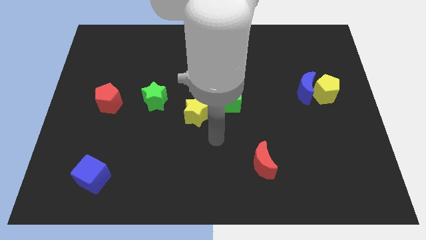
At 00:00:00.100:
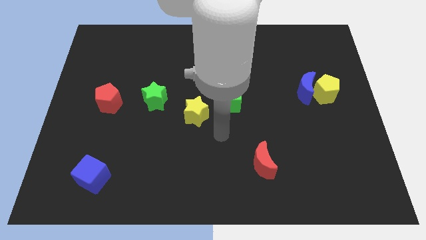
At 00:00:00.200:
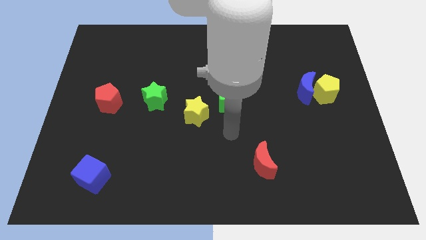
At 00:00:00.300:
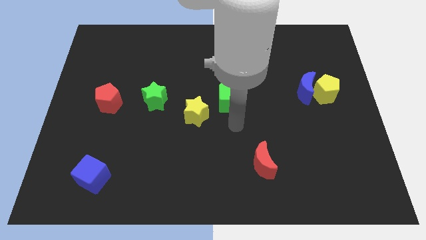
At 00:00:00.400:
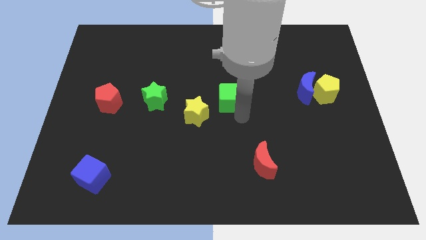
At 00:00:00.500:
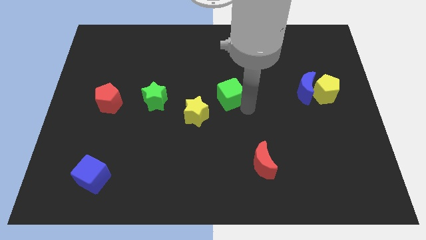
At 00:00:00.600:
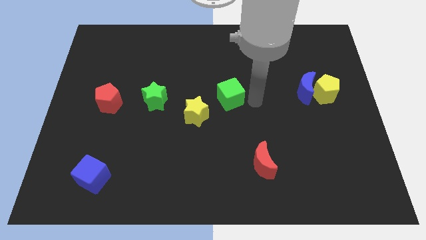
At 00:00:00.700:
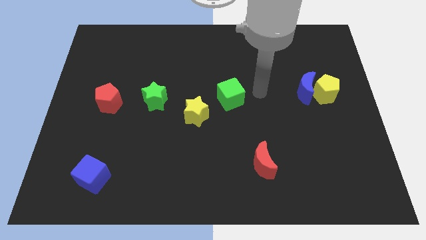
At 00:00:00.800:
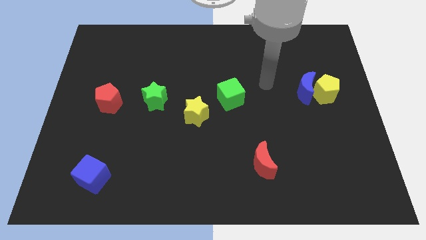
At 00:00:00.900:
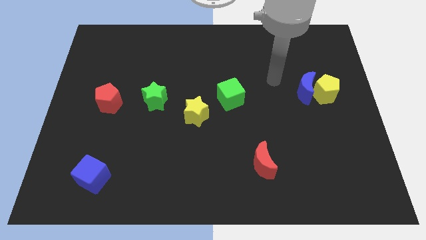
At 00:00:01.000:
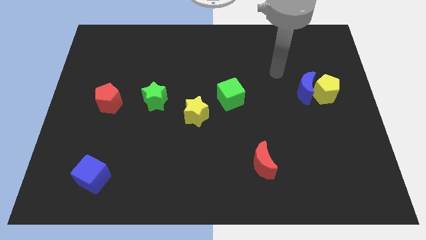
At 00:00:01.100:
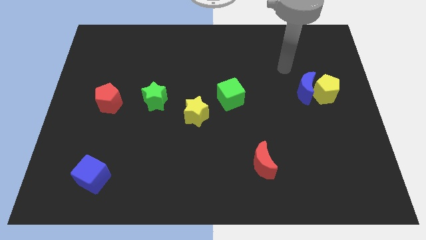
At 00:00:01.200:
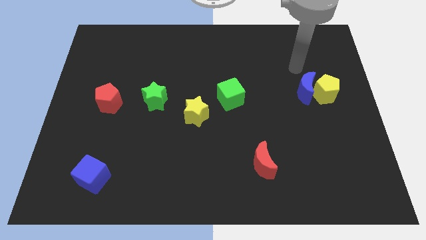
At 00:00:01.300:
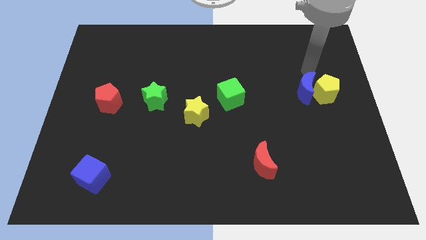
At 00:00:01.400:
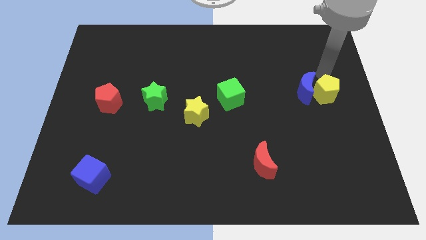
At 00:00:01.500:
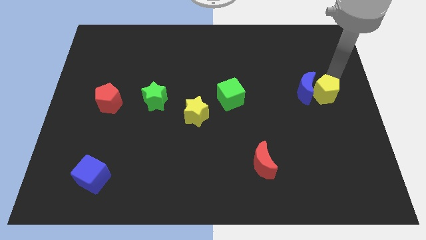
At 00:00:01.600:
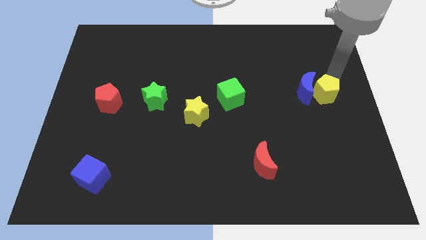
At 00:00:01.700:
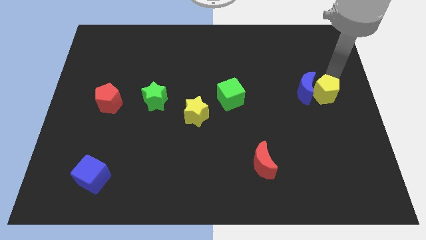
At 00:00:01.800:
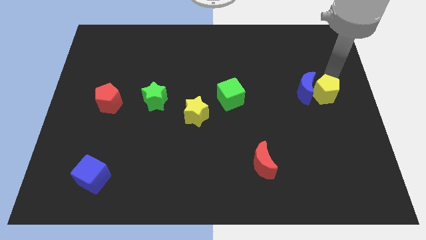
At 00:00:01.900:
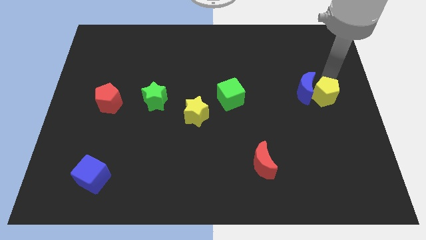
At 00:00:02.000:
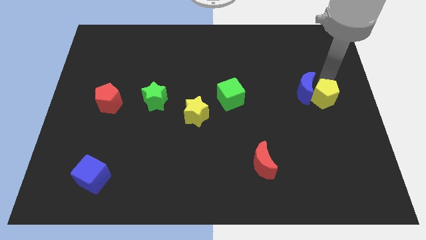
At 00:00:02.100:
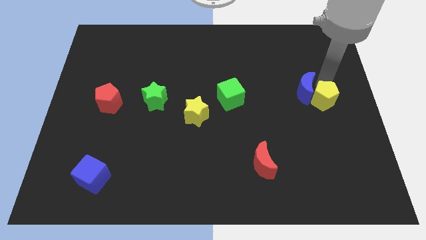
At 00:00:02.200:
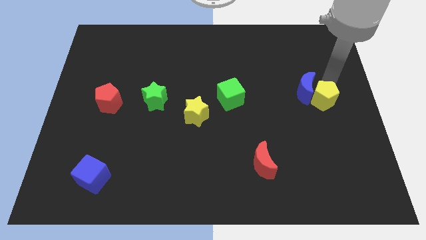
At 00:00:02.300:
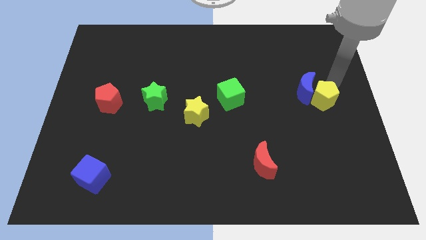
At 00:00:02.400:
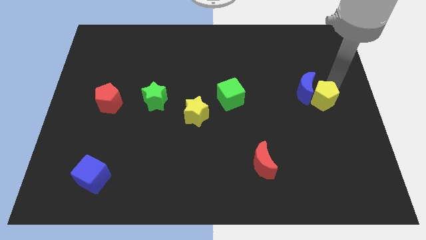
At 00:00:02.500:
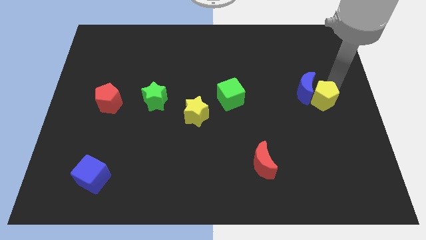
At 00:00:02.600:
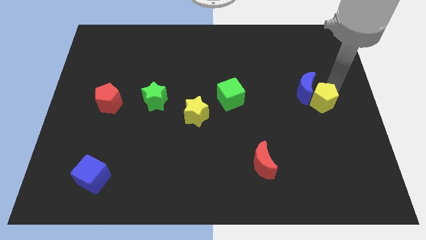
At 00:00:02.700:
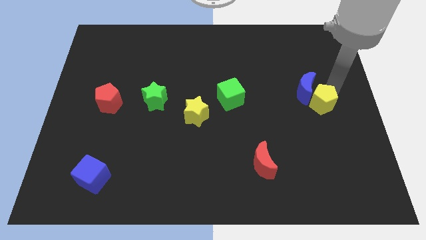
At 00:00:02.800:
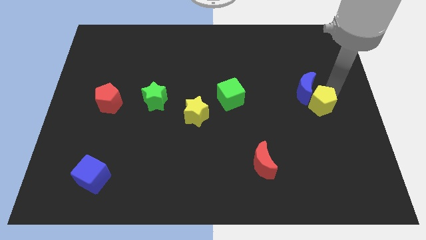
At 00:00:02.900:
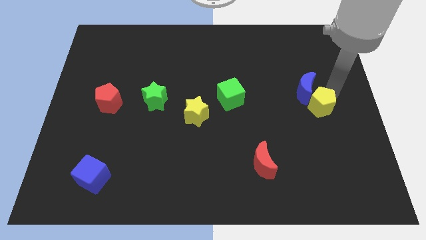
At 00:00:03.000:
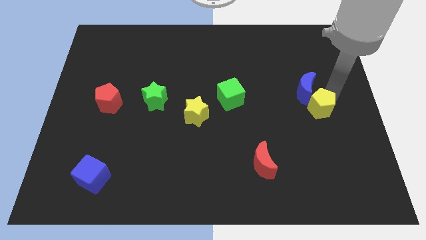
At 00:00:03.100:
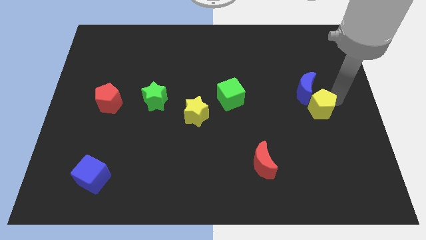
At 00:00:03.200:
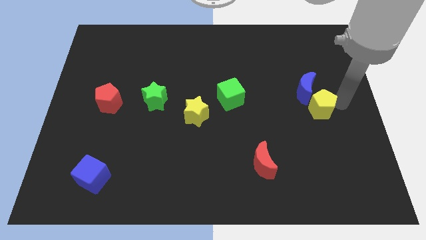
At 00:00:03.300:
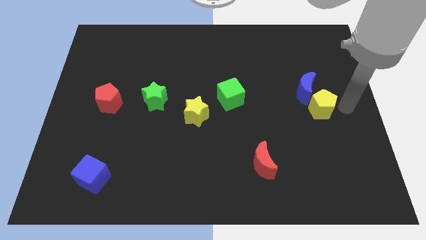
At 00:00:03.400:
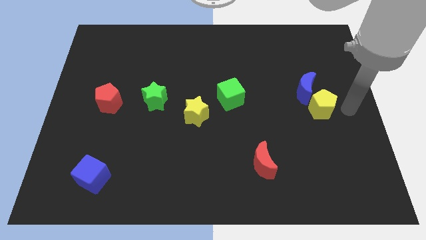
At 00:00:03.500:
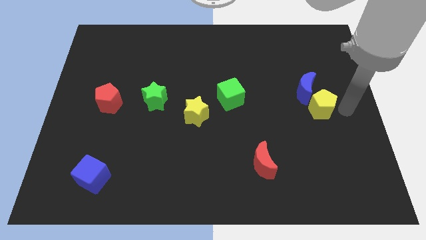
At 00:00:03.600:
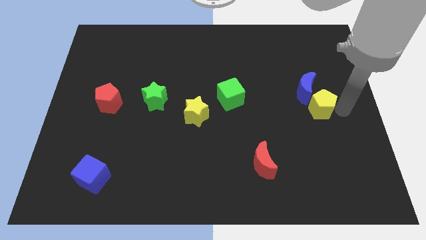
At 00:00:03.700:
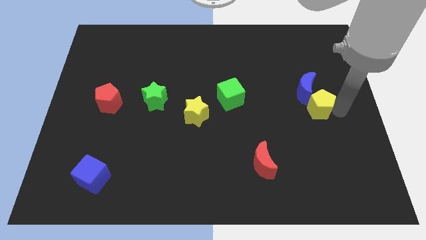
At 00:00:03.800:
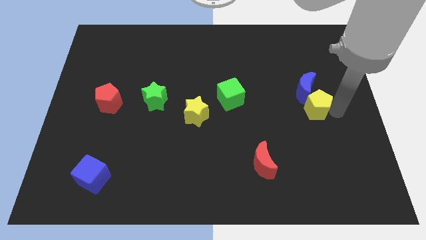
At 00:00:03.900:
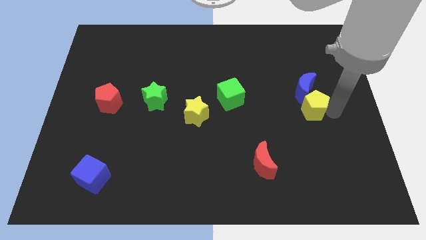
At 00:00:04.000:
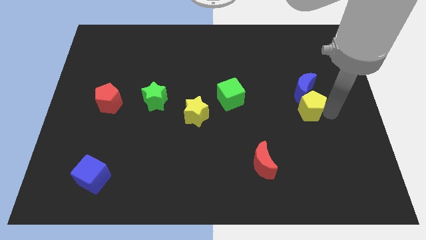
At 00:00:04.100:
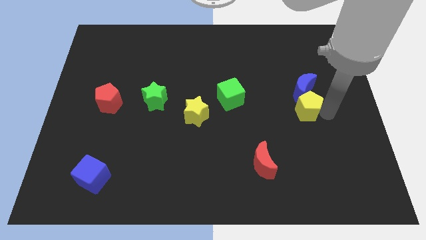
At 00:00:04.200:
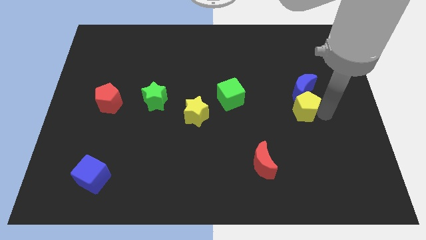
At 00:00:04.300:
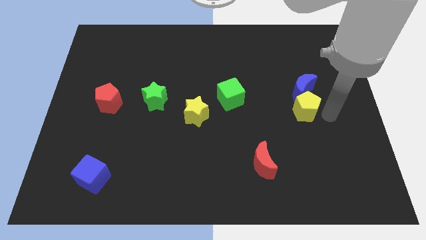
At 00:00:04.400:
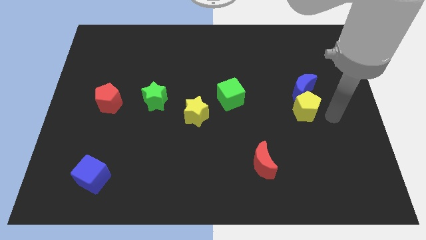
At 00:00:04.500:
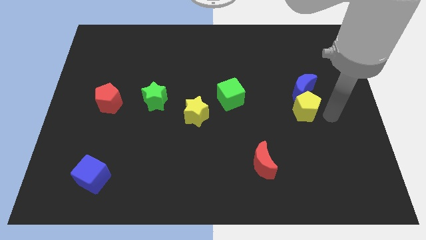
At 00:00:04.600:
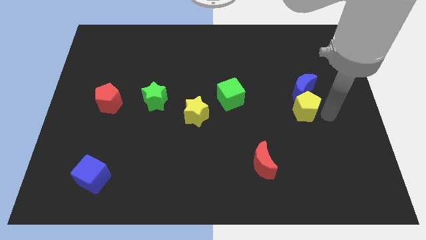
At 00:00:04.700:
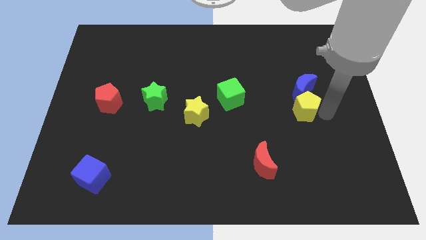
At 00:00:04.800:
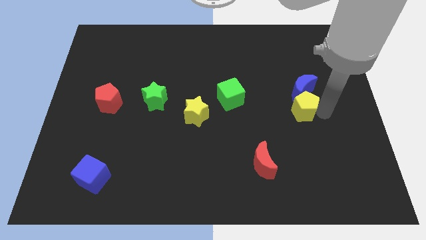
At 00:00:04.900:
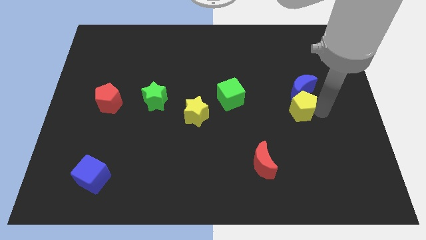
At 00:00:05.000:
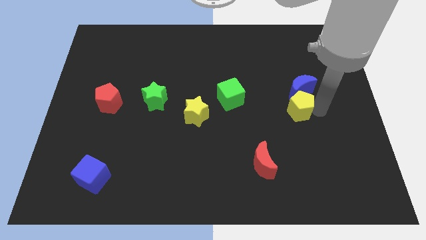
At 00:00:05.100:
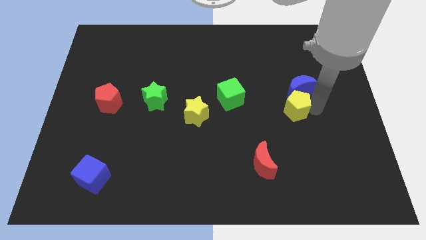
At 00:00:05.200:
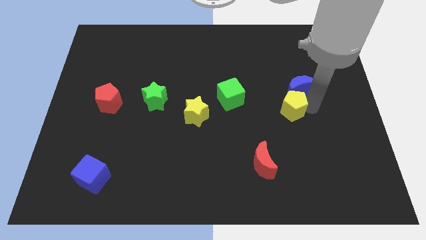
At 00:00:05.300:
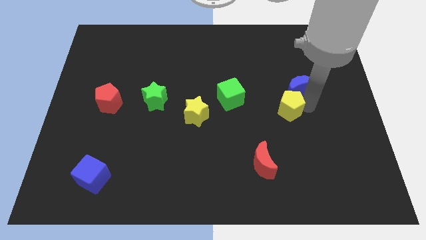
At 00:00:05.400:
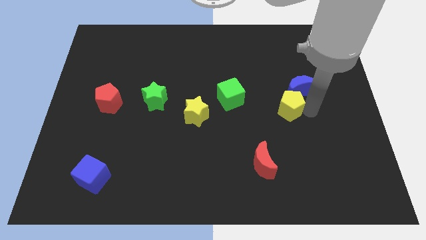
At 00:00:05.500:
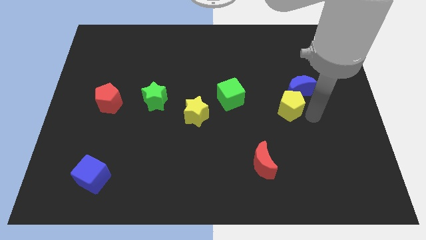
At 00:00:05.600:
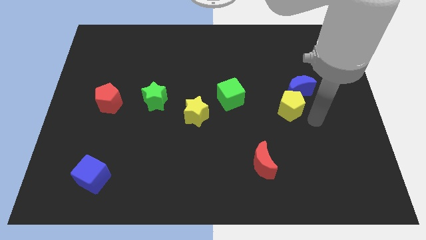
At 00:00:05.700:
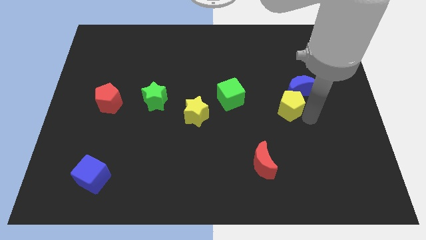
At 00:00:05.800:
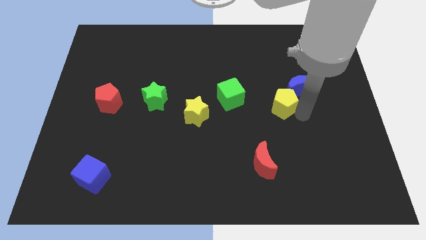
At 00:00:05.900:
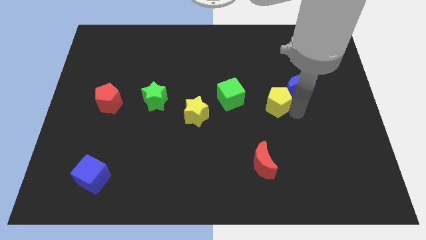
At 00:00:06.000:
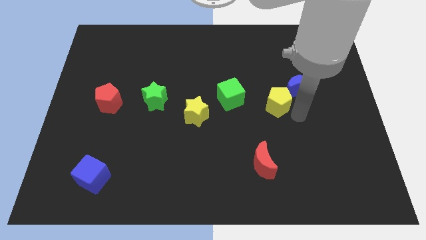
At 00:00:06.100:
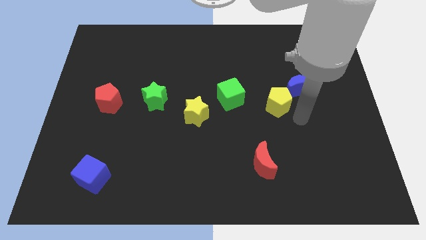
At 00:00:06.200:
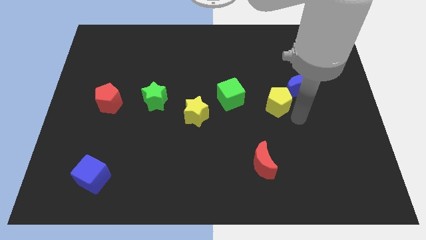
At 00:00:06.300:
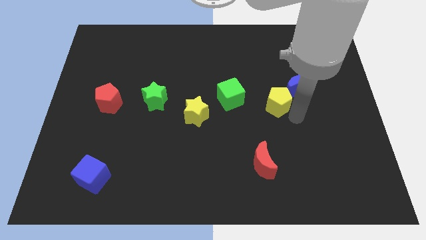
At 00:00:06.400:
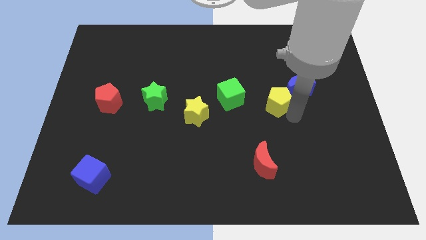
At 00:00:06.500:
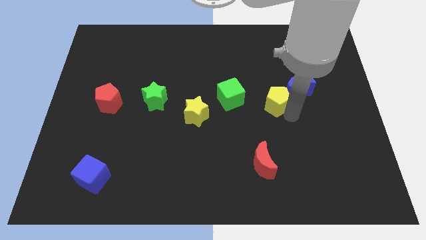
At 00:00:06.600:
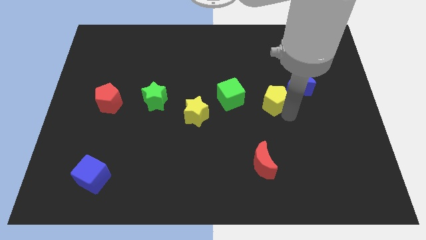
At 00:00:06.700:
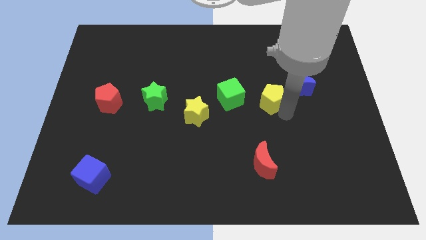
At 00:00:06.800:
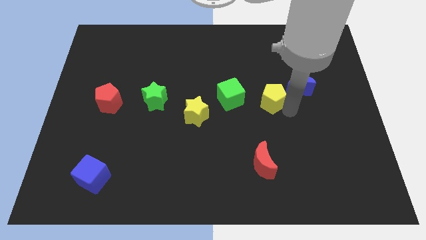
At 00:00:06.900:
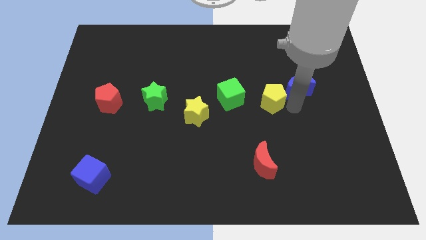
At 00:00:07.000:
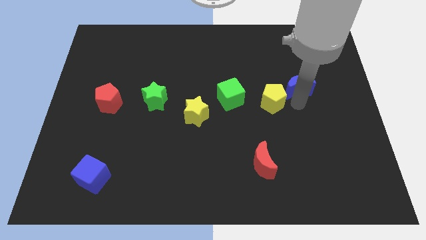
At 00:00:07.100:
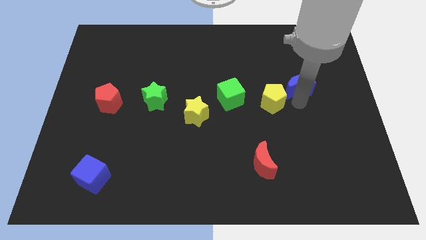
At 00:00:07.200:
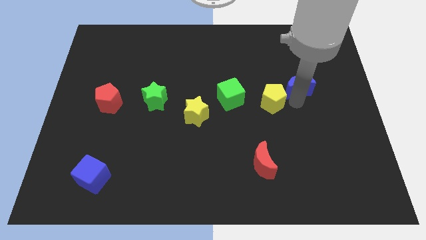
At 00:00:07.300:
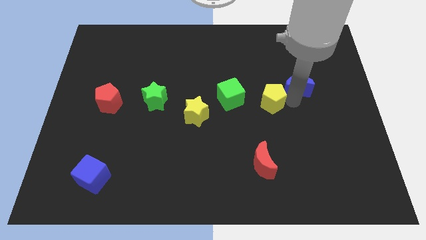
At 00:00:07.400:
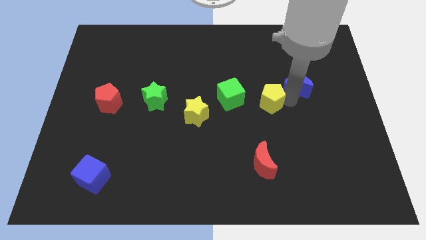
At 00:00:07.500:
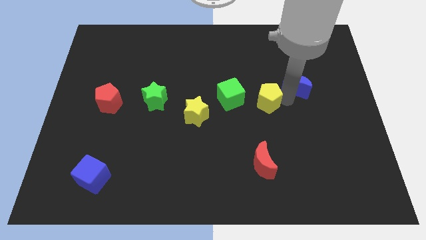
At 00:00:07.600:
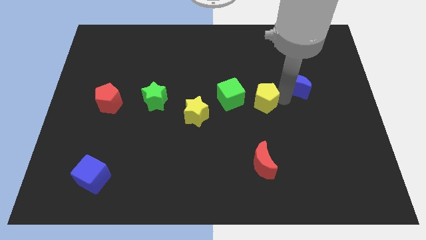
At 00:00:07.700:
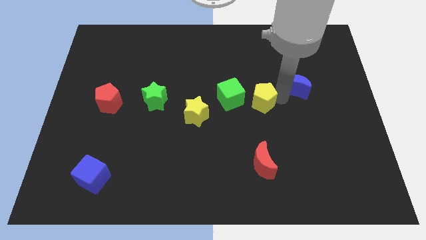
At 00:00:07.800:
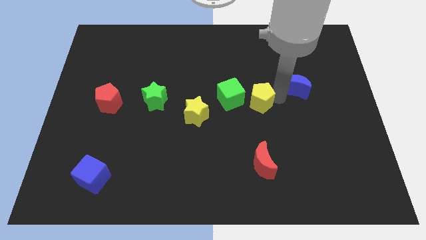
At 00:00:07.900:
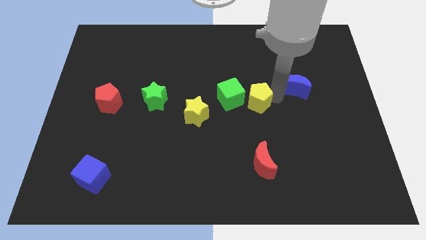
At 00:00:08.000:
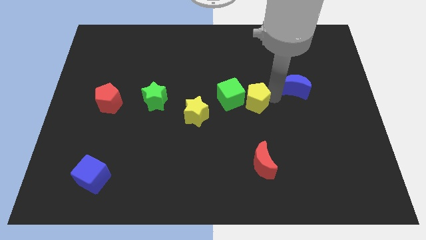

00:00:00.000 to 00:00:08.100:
push the yellow pentagon next to the green cube
